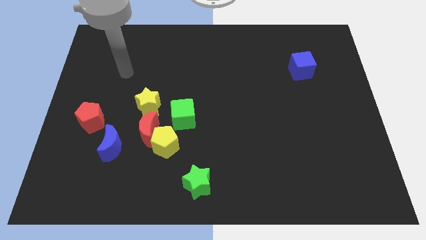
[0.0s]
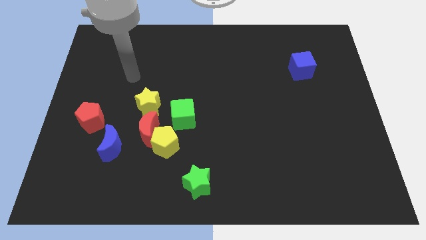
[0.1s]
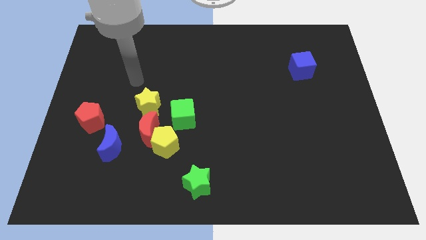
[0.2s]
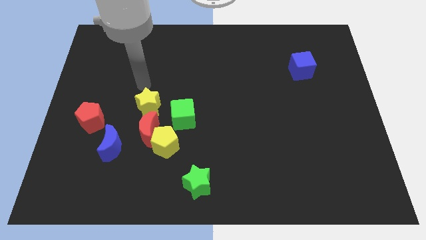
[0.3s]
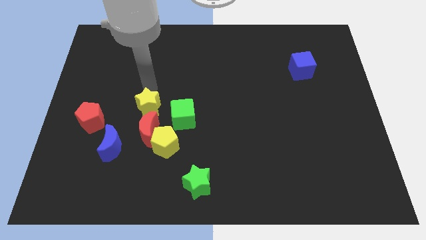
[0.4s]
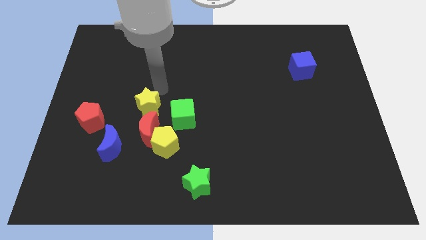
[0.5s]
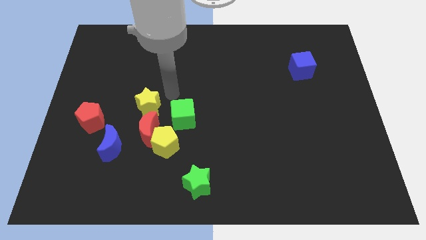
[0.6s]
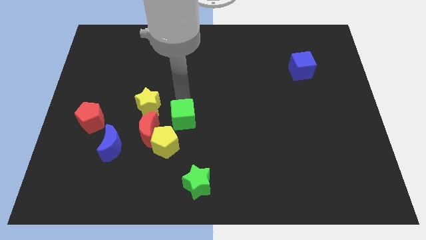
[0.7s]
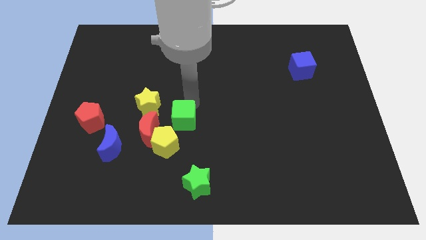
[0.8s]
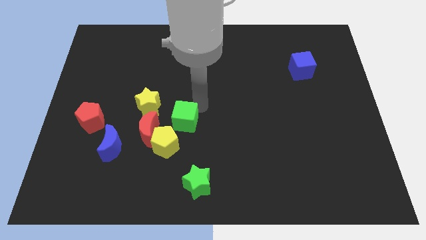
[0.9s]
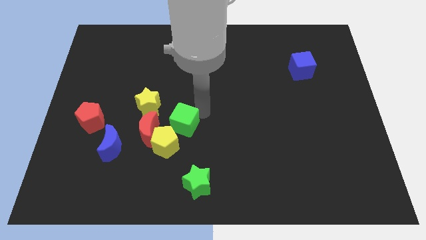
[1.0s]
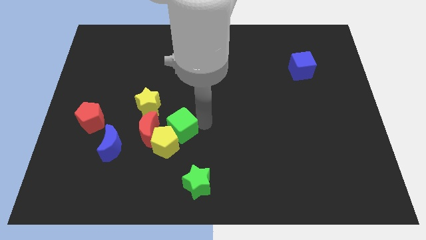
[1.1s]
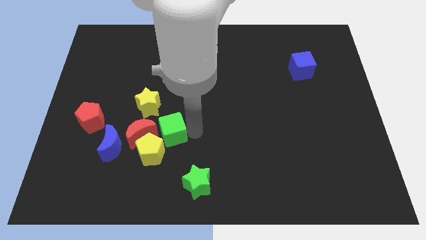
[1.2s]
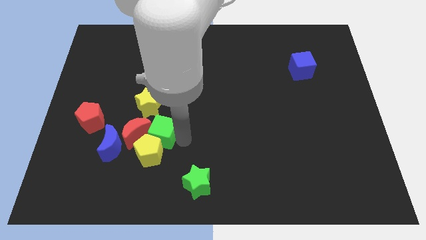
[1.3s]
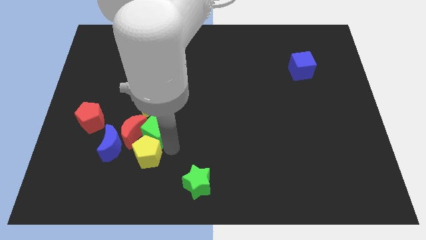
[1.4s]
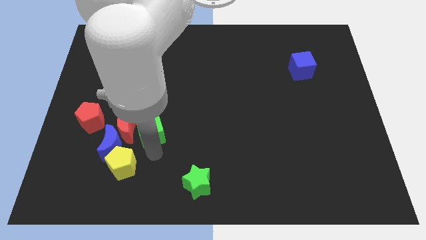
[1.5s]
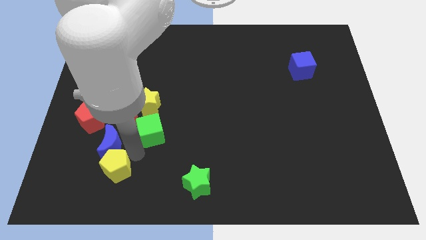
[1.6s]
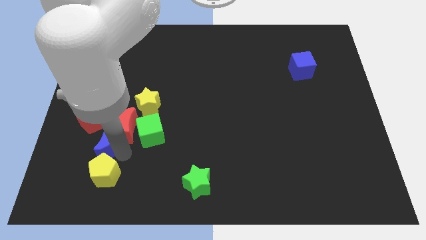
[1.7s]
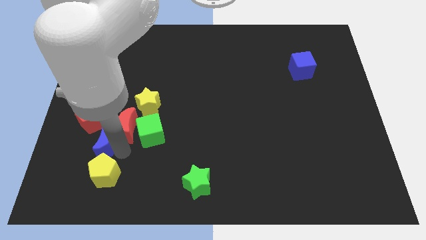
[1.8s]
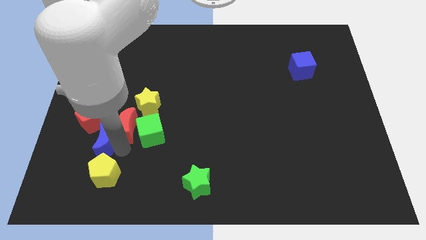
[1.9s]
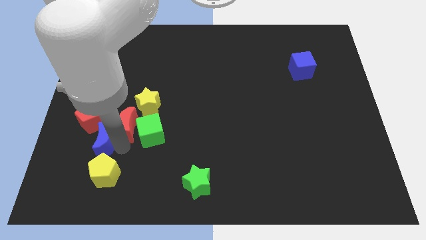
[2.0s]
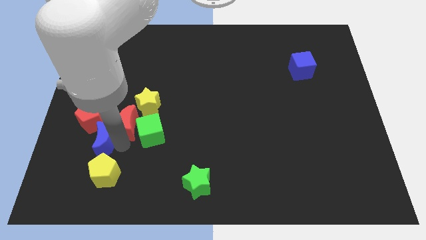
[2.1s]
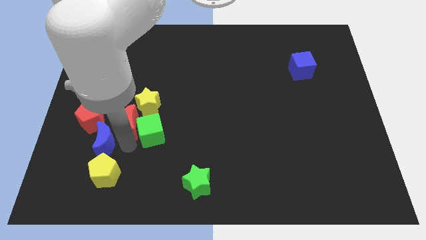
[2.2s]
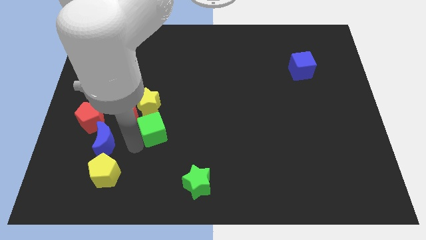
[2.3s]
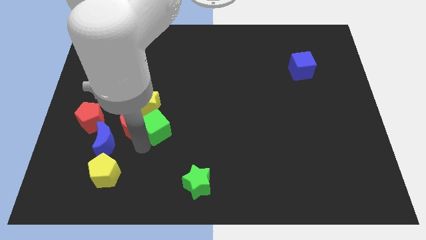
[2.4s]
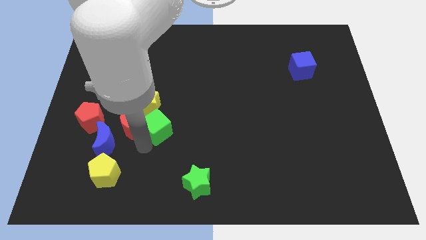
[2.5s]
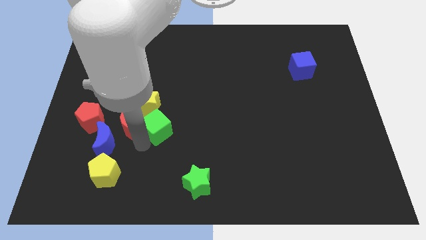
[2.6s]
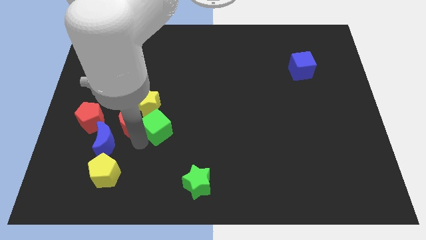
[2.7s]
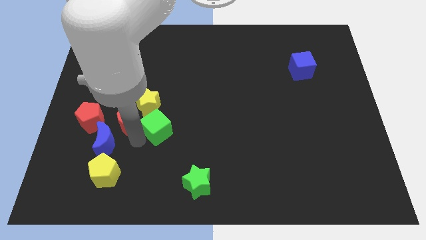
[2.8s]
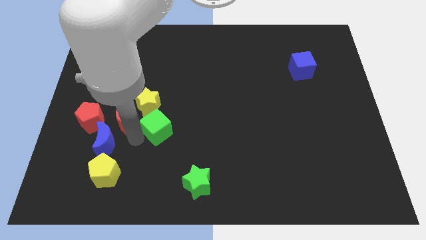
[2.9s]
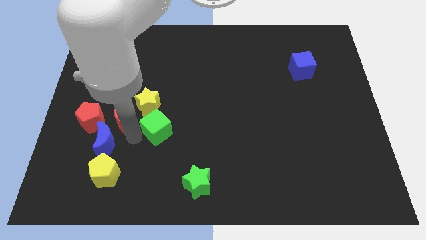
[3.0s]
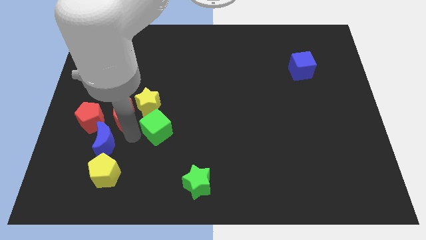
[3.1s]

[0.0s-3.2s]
slightly move the red moon up and left diagonally

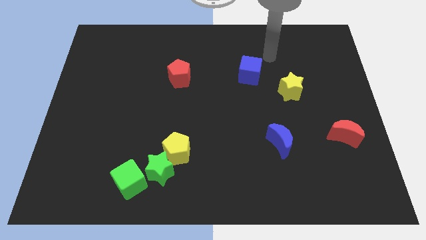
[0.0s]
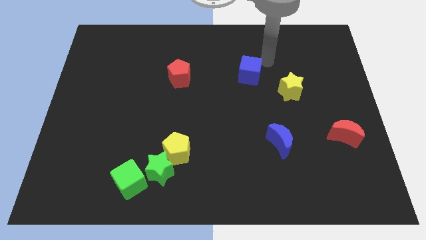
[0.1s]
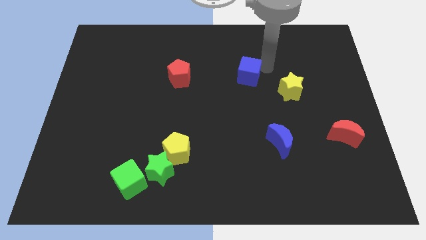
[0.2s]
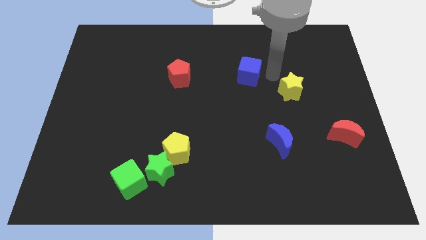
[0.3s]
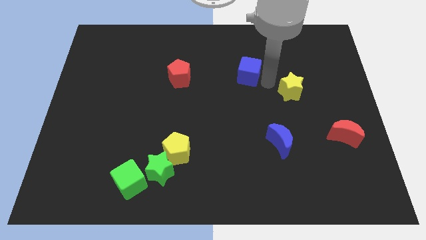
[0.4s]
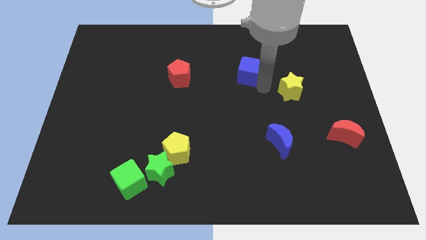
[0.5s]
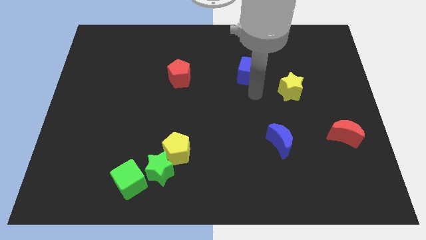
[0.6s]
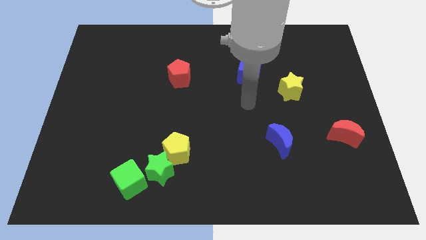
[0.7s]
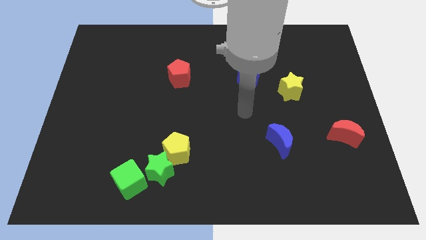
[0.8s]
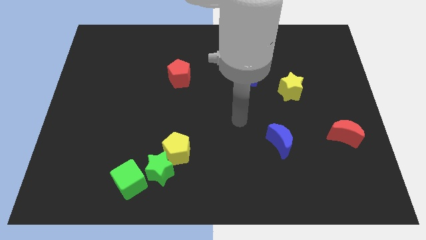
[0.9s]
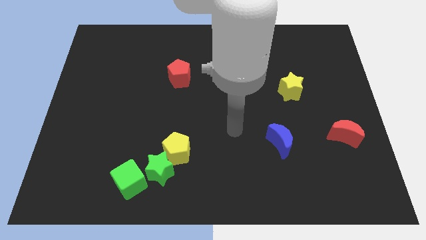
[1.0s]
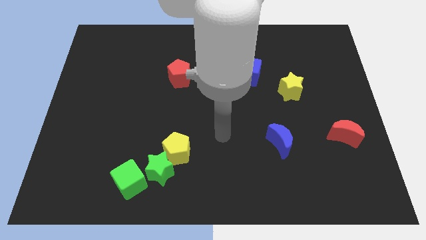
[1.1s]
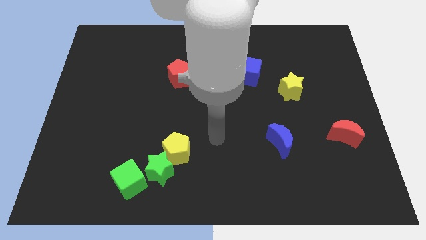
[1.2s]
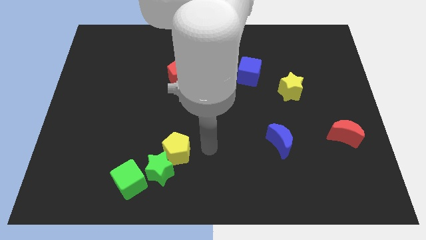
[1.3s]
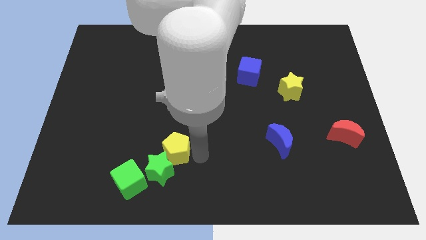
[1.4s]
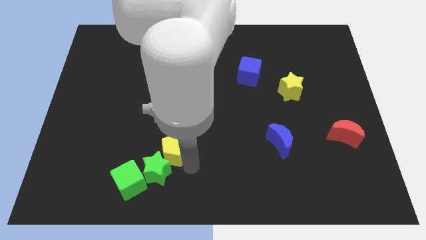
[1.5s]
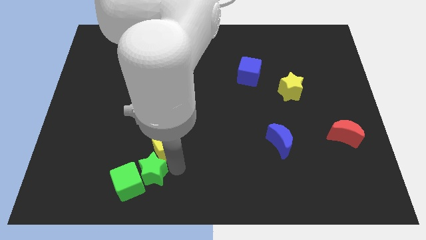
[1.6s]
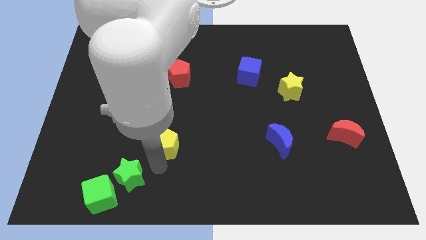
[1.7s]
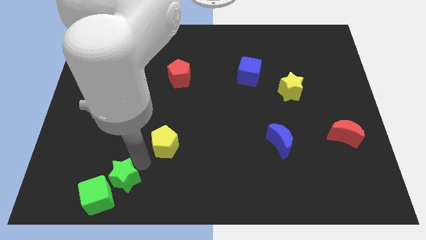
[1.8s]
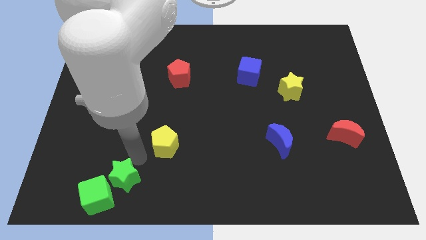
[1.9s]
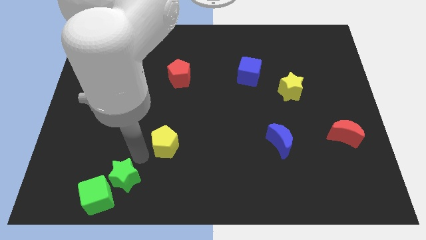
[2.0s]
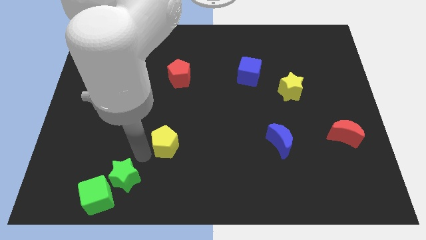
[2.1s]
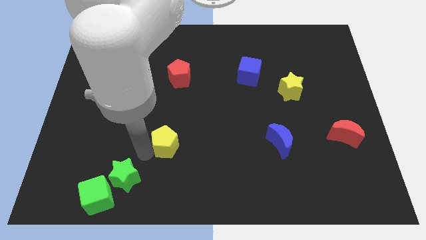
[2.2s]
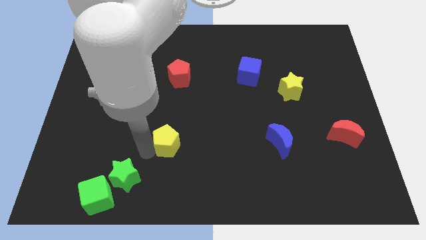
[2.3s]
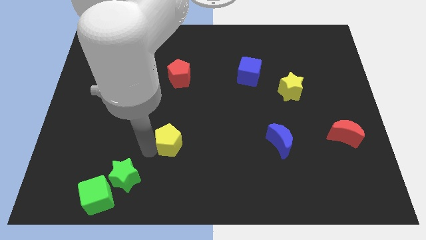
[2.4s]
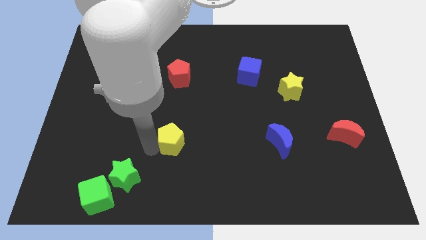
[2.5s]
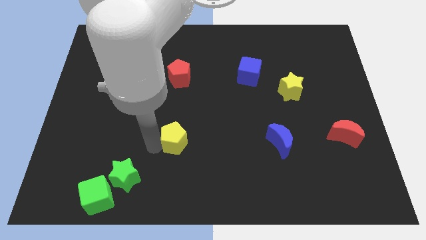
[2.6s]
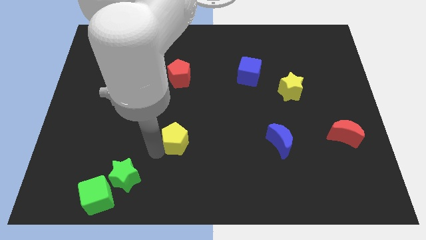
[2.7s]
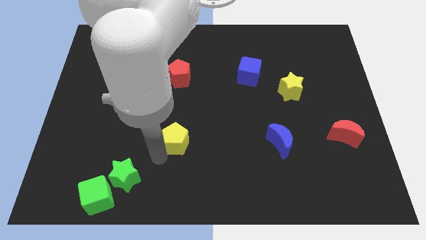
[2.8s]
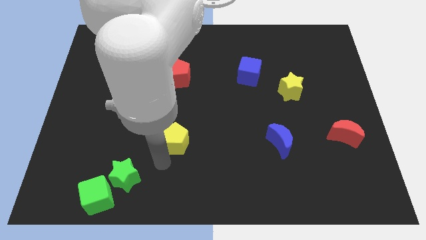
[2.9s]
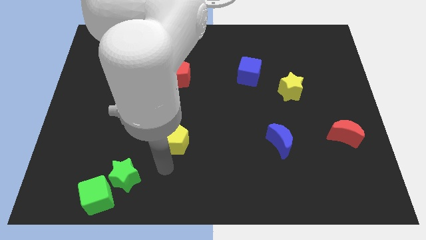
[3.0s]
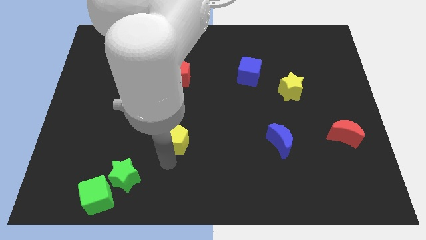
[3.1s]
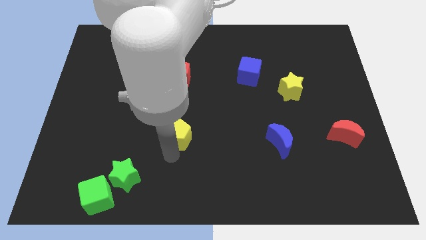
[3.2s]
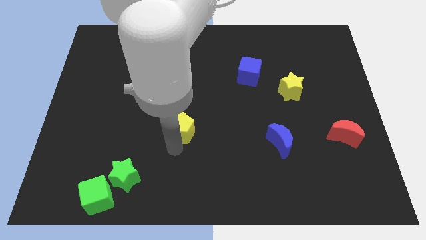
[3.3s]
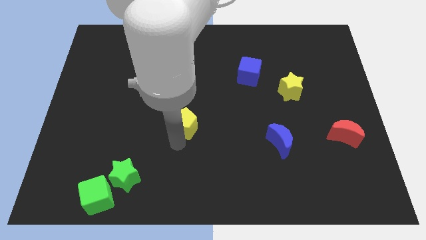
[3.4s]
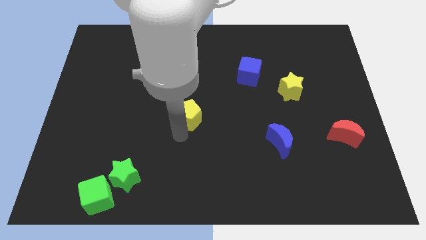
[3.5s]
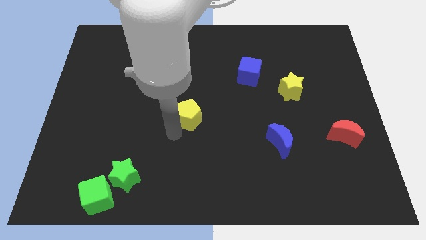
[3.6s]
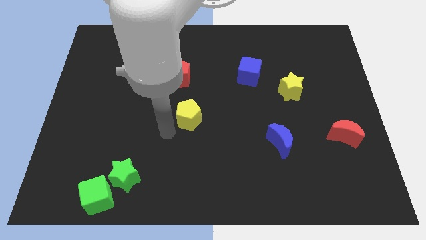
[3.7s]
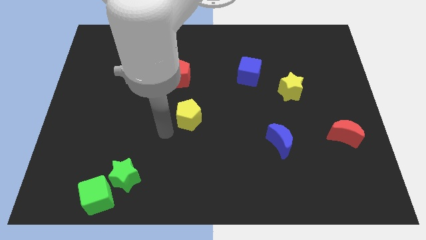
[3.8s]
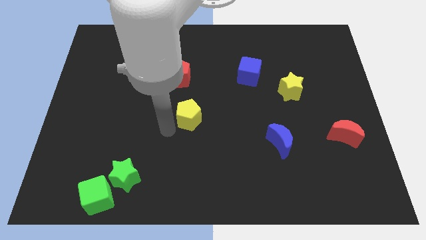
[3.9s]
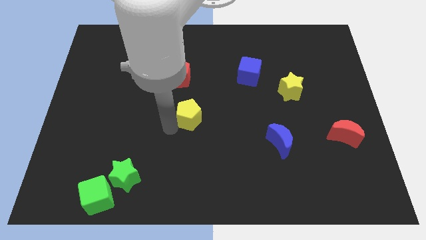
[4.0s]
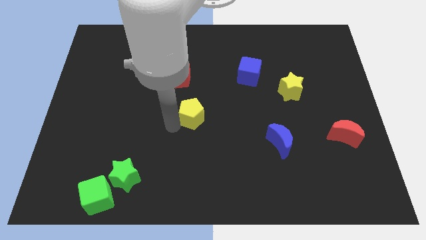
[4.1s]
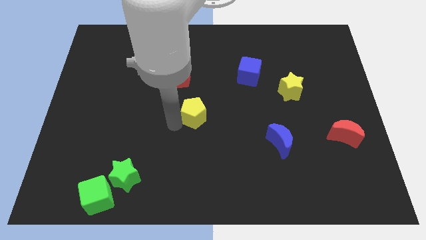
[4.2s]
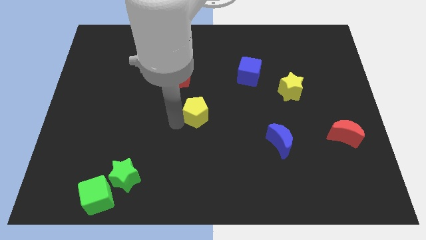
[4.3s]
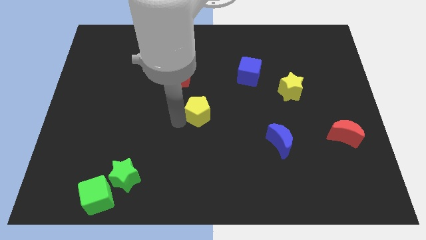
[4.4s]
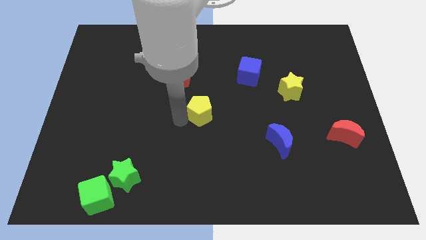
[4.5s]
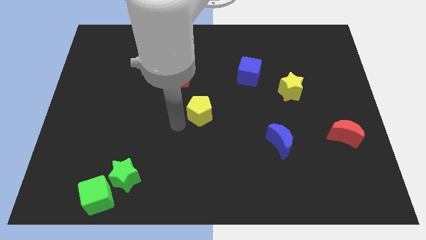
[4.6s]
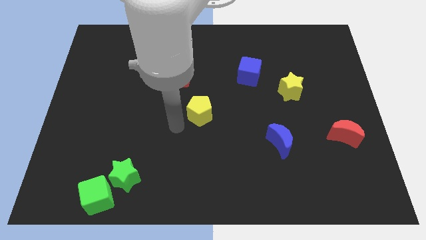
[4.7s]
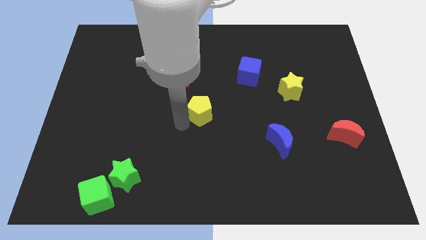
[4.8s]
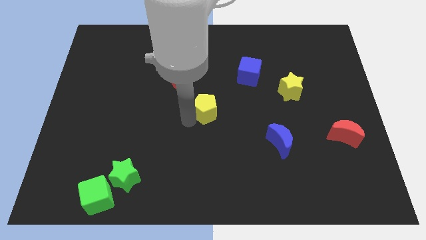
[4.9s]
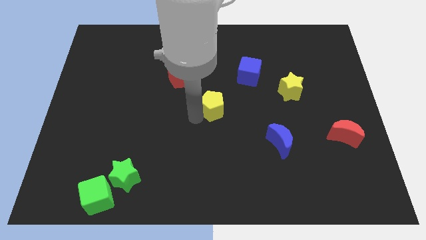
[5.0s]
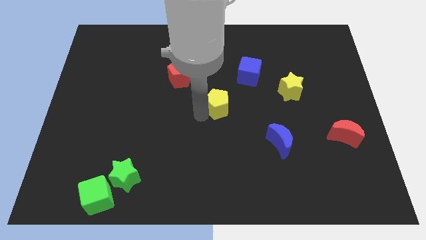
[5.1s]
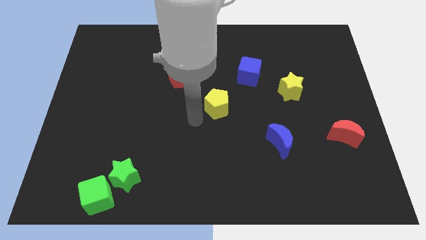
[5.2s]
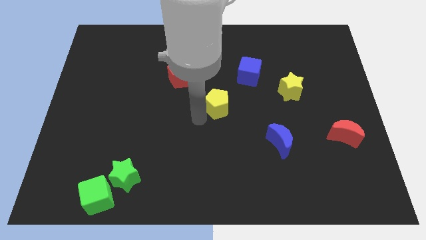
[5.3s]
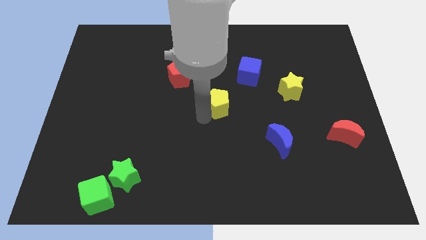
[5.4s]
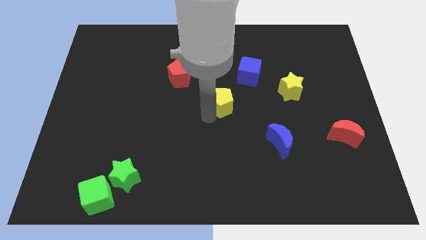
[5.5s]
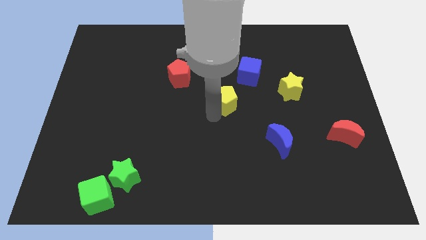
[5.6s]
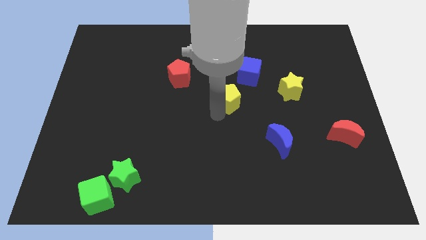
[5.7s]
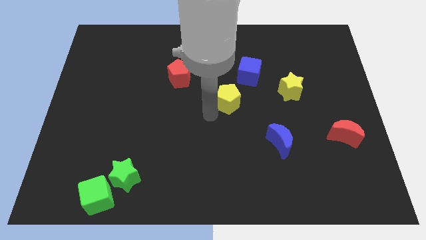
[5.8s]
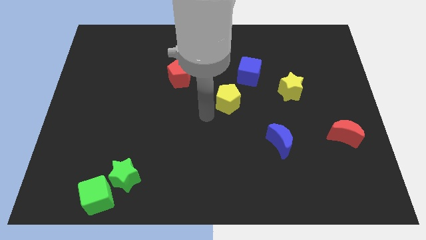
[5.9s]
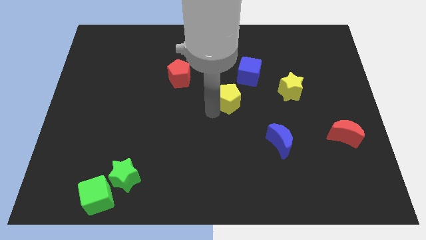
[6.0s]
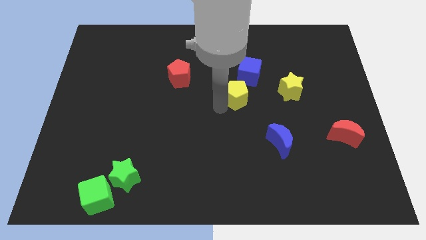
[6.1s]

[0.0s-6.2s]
slide the yellow pentagon diagonally upwards and right
